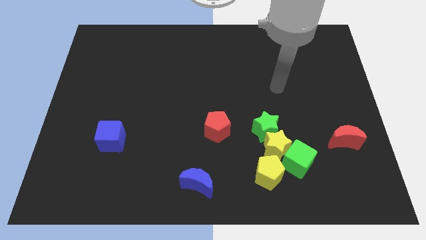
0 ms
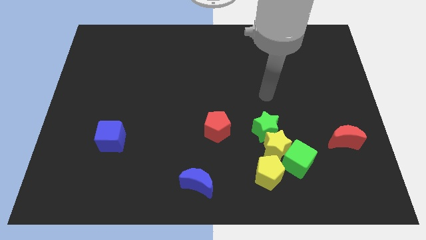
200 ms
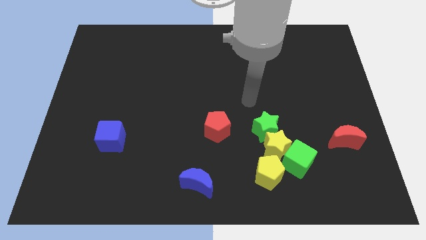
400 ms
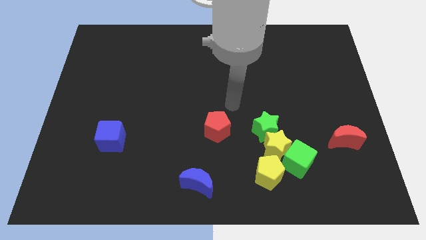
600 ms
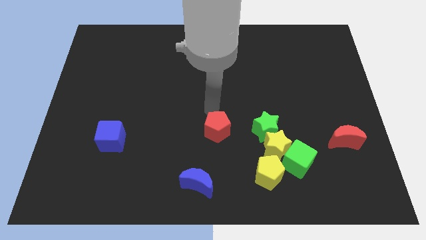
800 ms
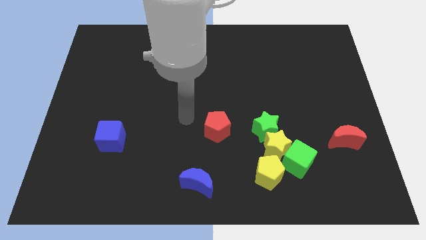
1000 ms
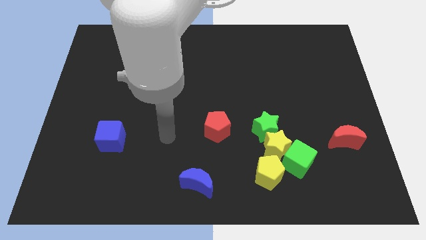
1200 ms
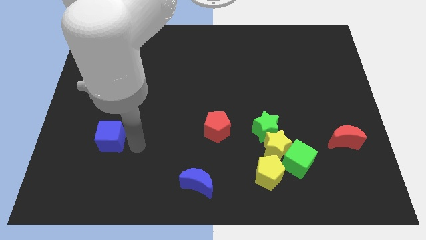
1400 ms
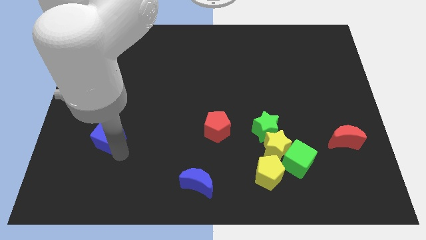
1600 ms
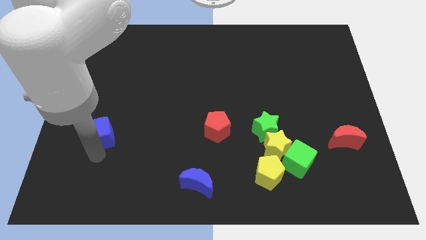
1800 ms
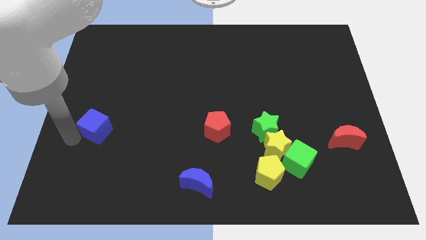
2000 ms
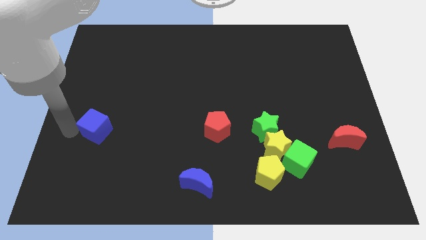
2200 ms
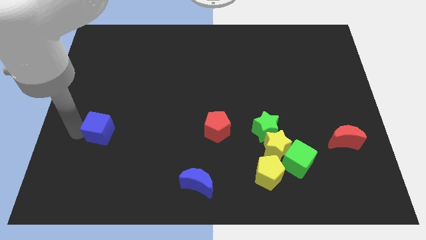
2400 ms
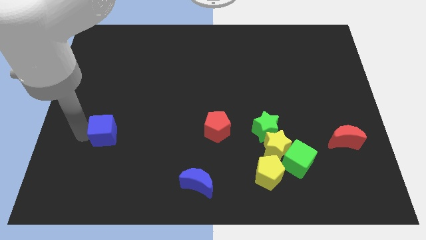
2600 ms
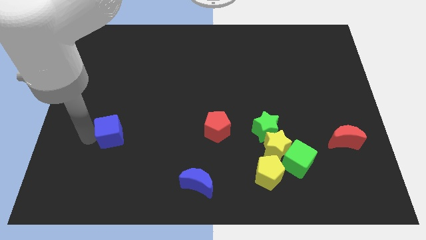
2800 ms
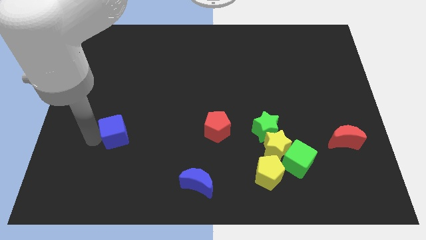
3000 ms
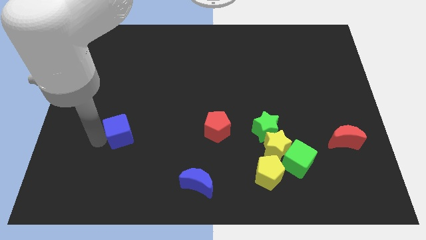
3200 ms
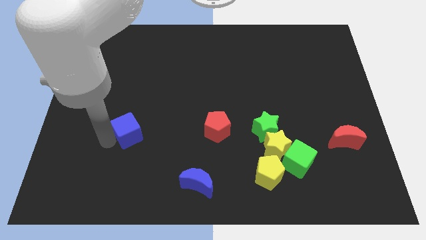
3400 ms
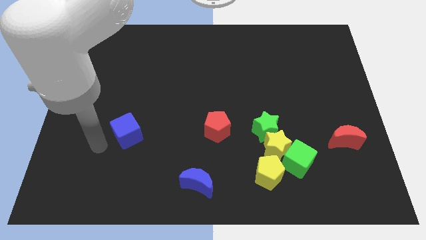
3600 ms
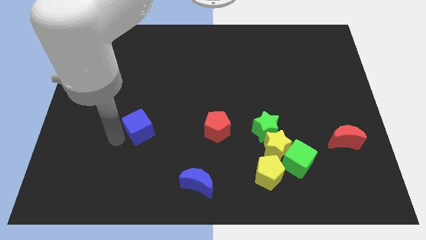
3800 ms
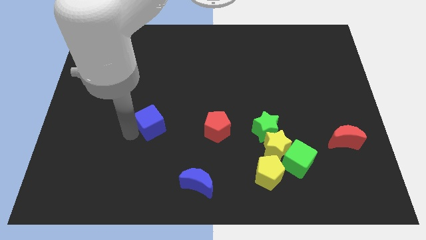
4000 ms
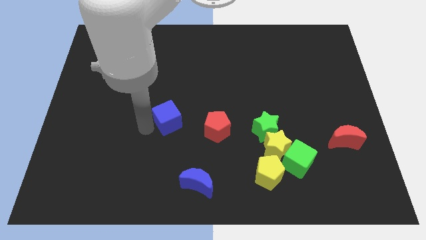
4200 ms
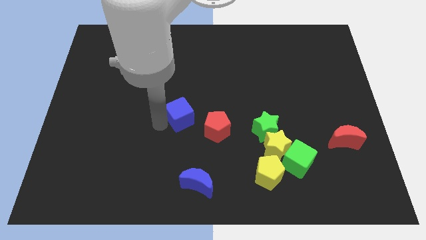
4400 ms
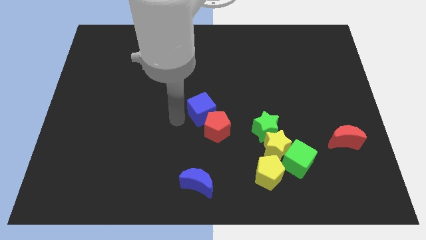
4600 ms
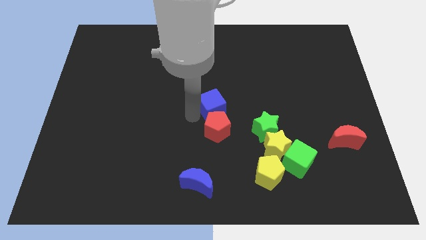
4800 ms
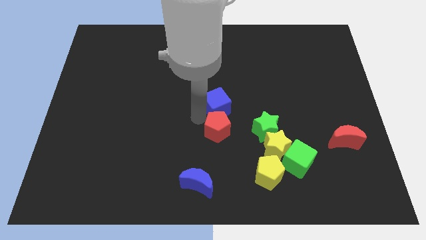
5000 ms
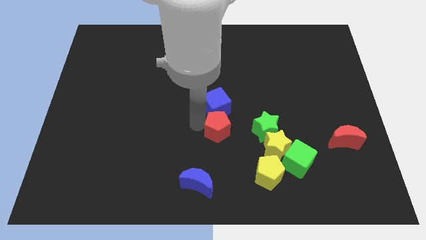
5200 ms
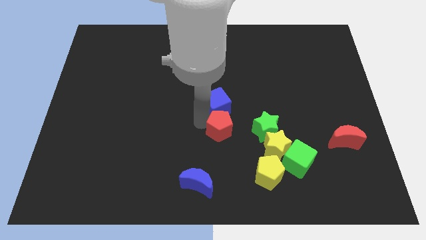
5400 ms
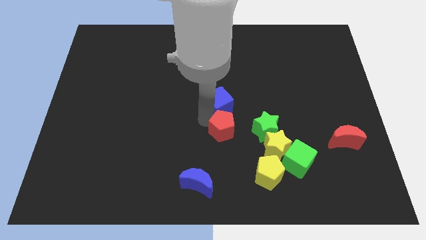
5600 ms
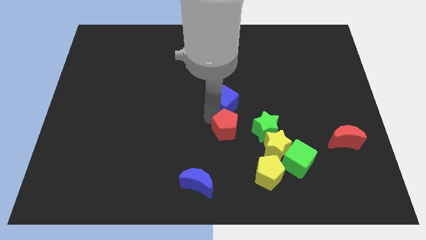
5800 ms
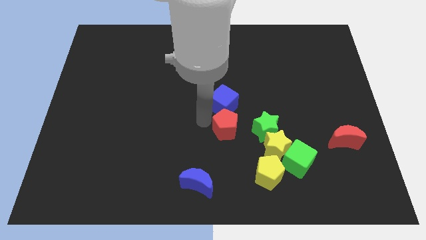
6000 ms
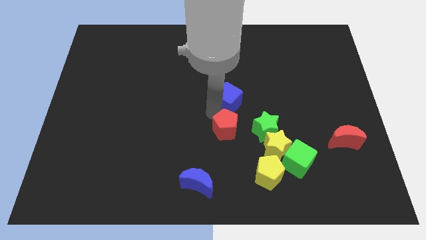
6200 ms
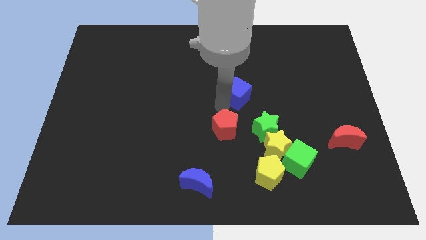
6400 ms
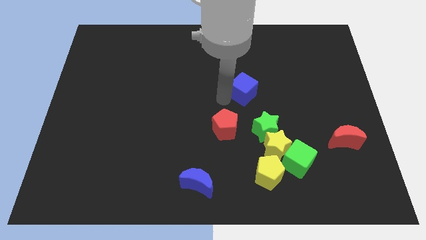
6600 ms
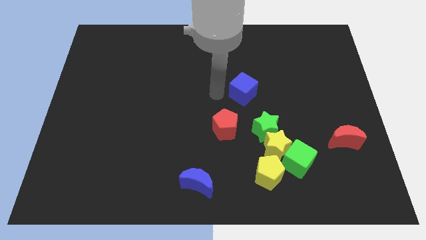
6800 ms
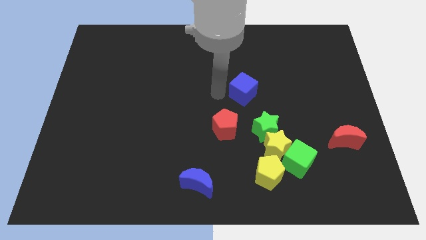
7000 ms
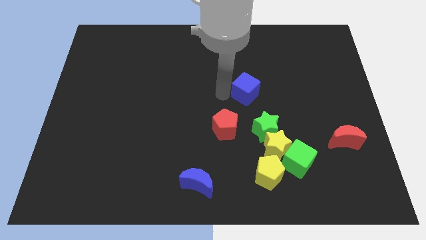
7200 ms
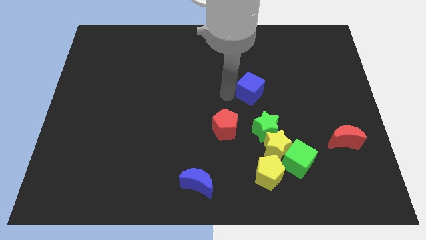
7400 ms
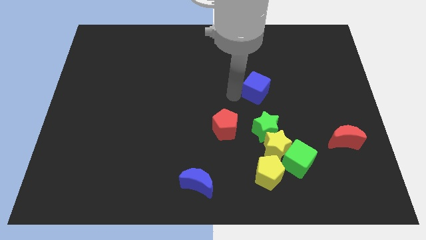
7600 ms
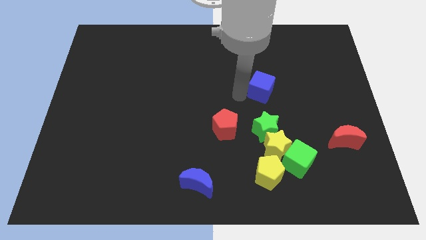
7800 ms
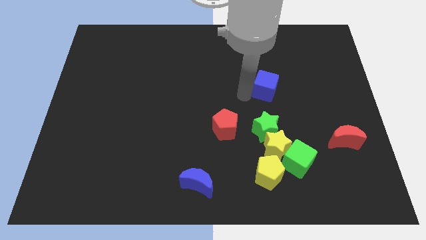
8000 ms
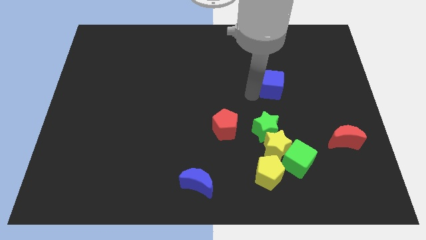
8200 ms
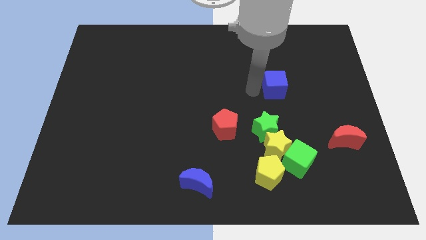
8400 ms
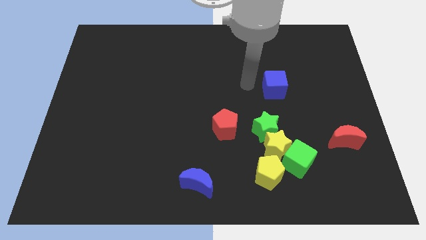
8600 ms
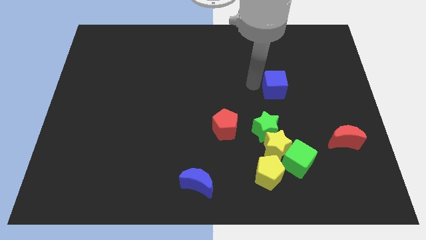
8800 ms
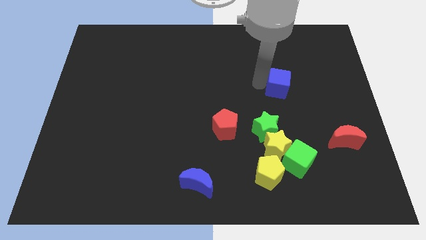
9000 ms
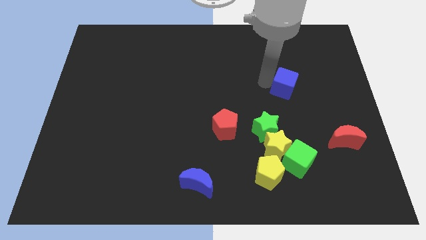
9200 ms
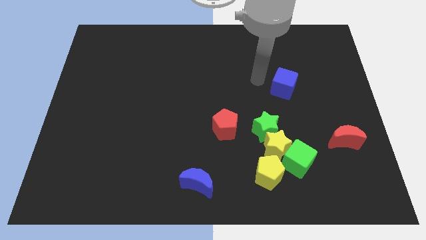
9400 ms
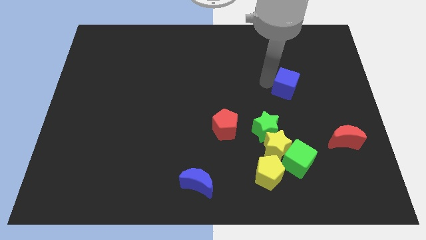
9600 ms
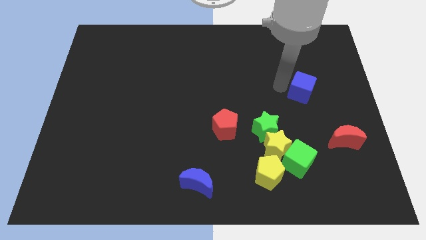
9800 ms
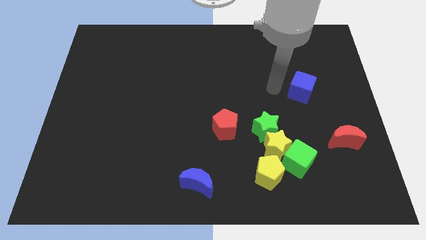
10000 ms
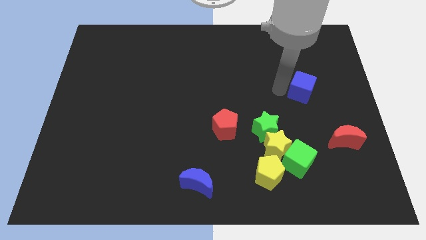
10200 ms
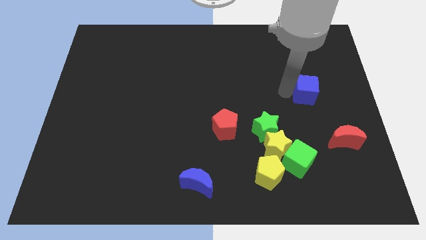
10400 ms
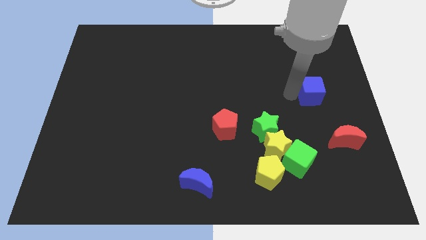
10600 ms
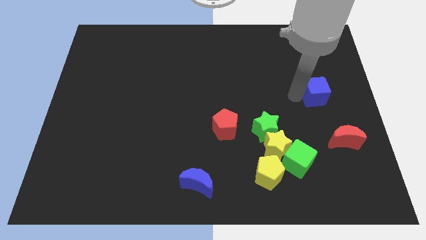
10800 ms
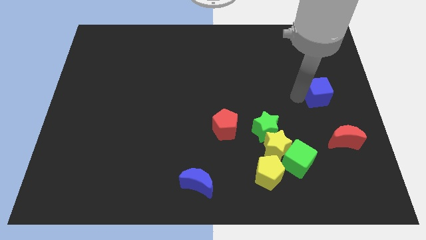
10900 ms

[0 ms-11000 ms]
push the blue cube to the center right
